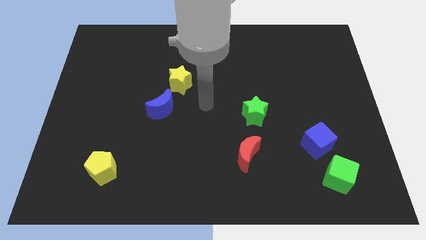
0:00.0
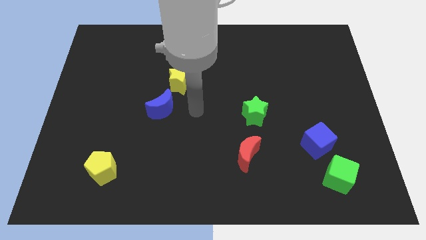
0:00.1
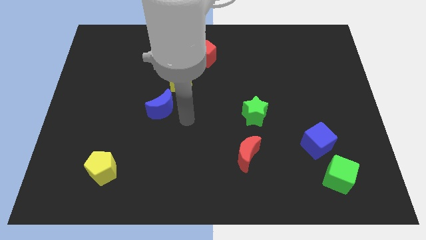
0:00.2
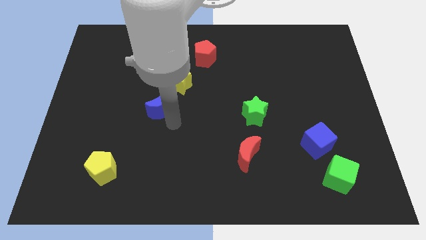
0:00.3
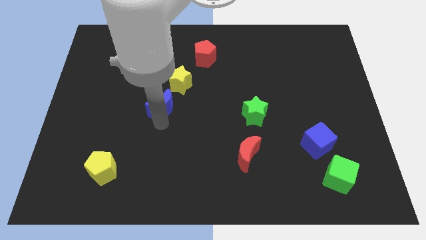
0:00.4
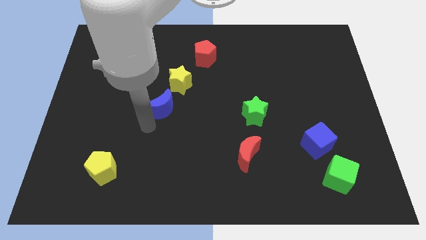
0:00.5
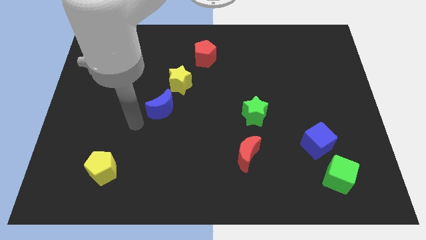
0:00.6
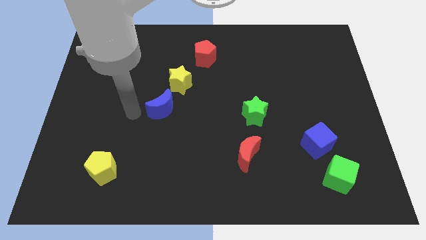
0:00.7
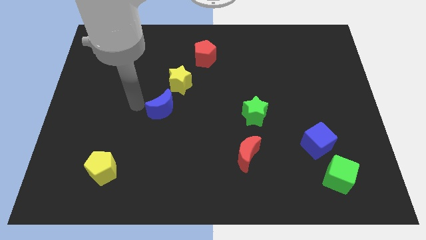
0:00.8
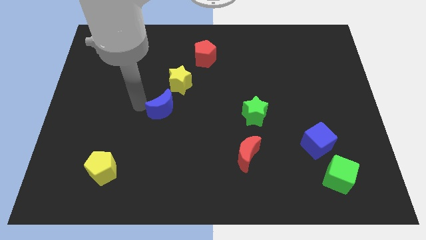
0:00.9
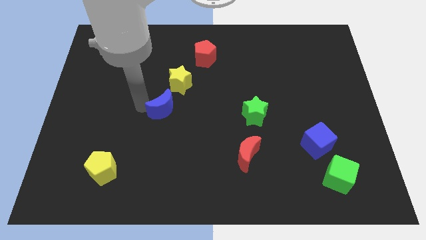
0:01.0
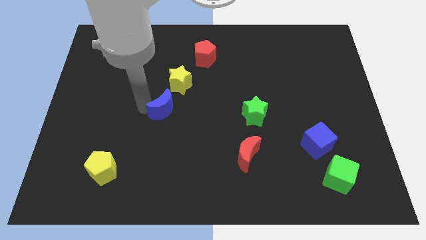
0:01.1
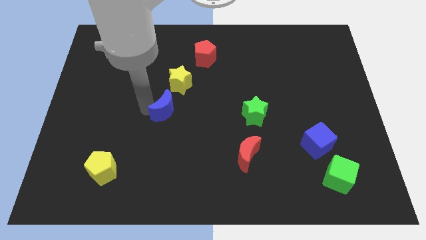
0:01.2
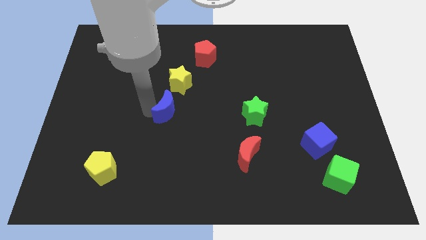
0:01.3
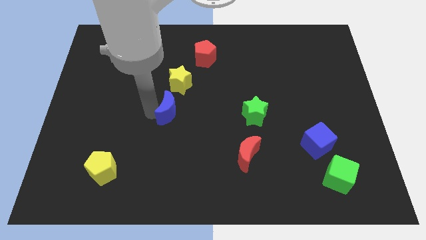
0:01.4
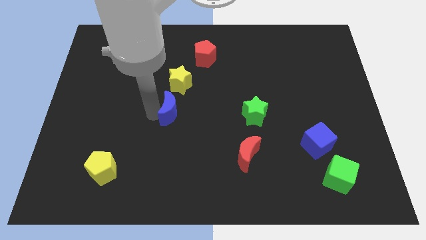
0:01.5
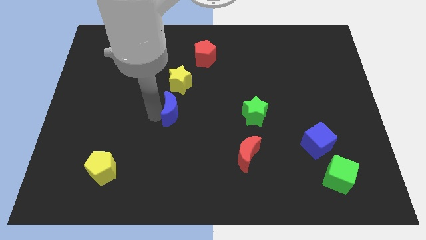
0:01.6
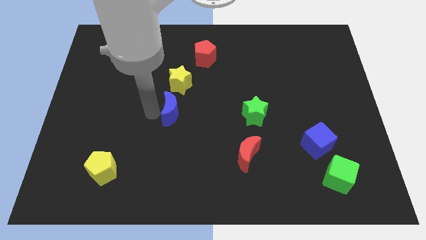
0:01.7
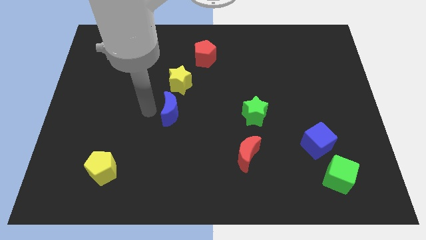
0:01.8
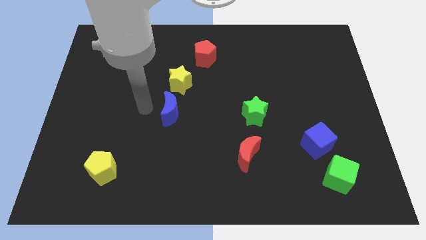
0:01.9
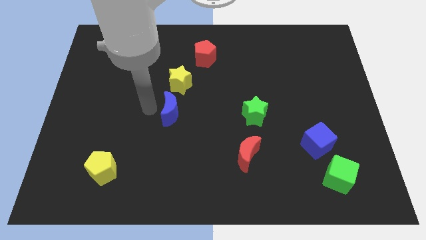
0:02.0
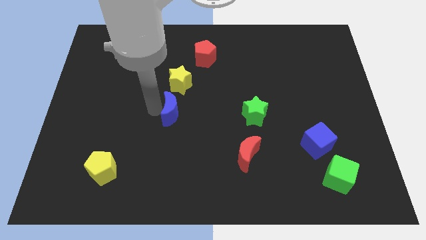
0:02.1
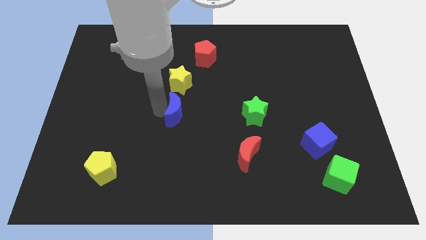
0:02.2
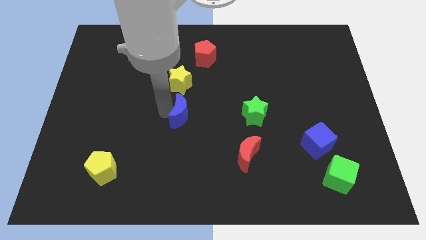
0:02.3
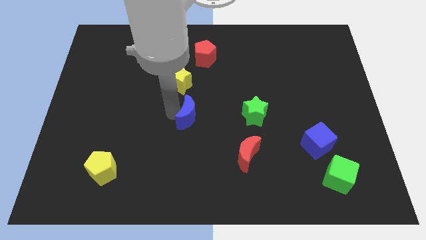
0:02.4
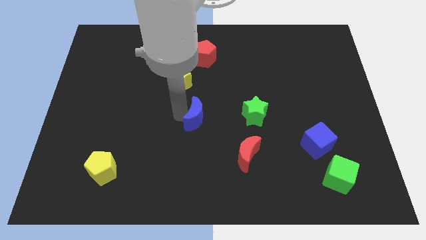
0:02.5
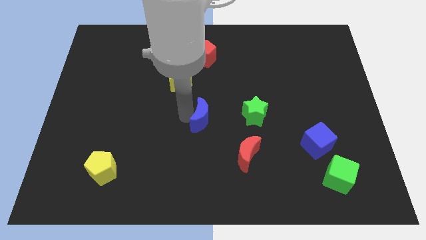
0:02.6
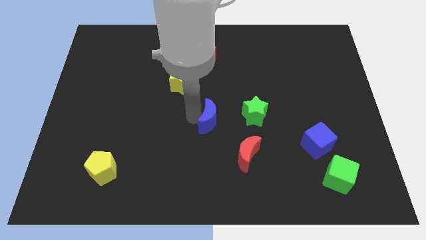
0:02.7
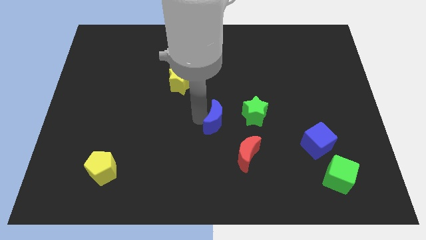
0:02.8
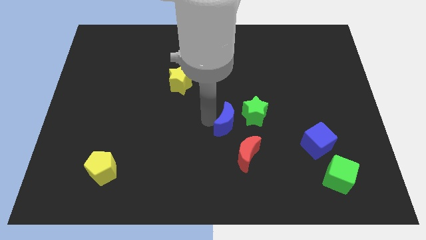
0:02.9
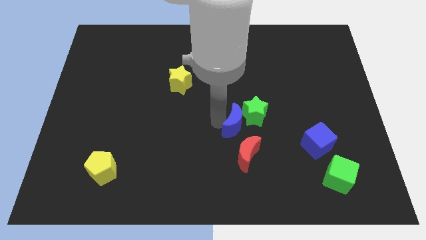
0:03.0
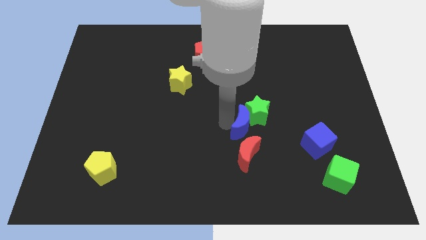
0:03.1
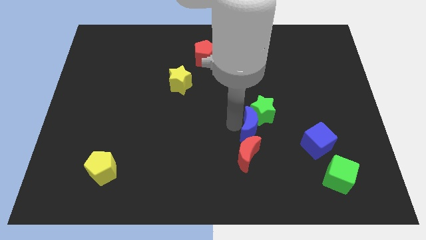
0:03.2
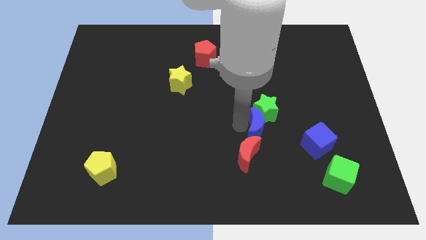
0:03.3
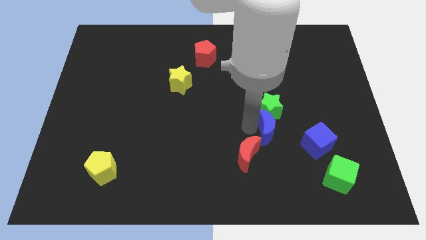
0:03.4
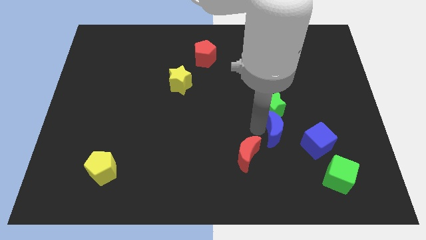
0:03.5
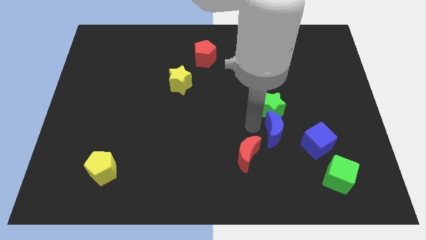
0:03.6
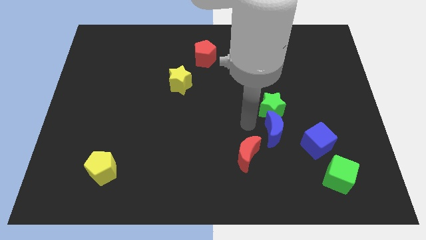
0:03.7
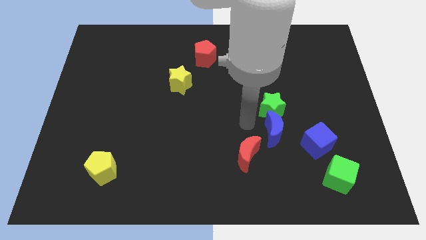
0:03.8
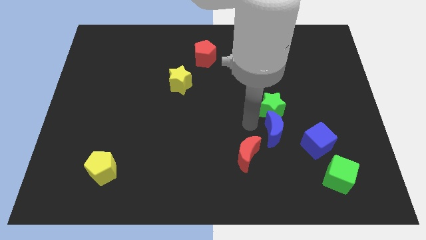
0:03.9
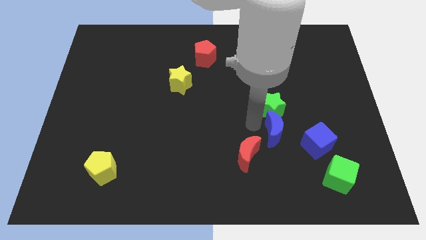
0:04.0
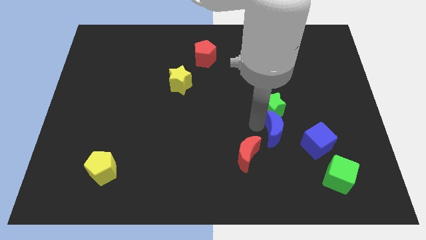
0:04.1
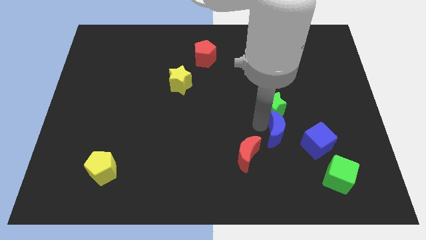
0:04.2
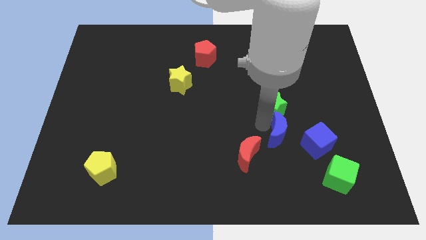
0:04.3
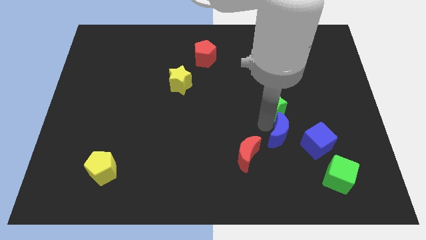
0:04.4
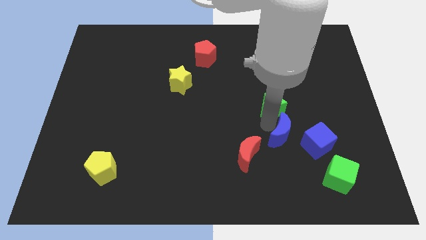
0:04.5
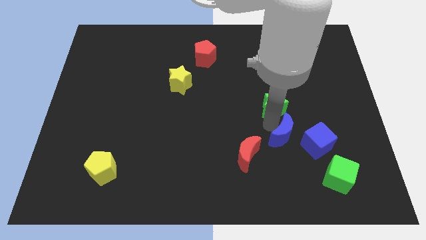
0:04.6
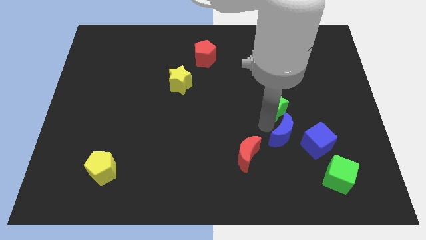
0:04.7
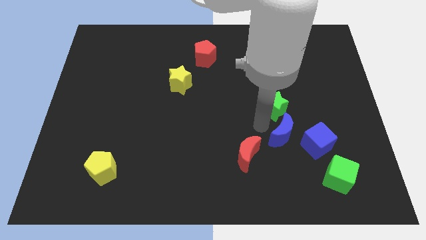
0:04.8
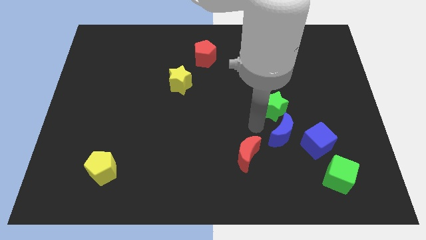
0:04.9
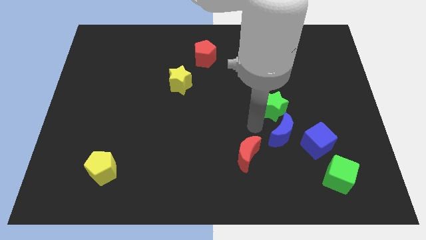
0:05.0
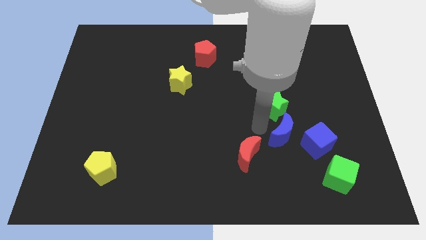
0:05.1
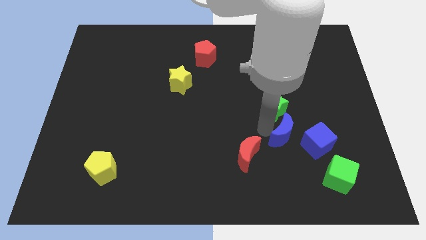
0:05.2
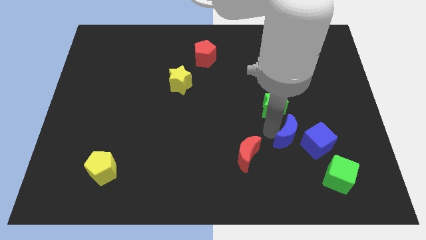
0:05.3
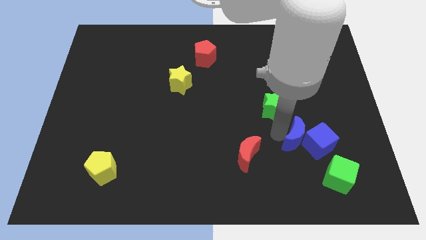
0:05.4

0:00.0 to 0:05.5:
put the blue moon to the blue cube

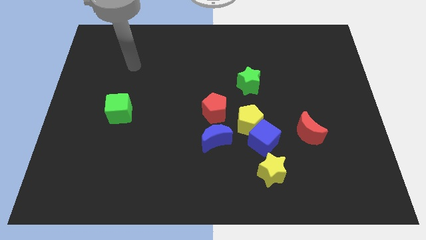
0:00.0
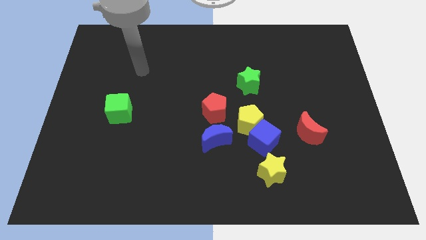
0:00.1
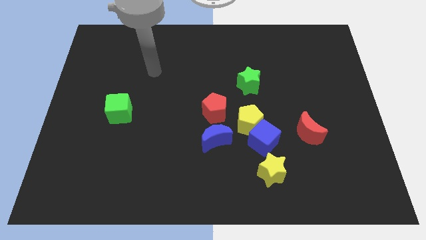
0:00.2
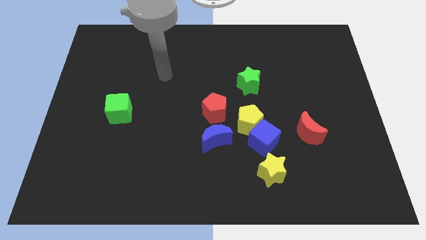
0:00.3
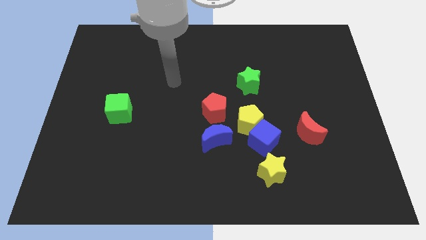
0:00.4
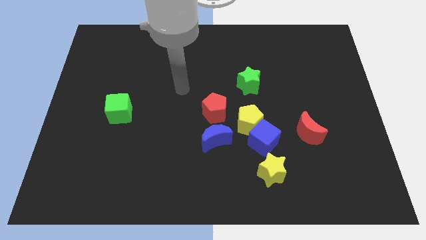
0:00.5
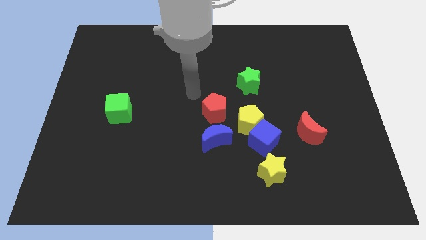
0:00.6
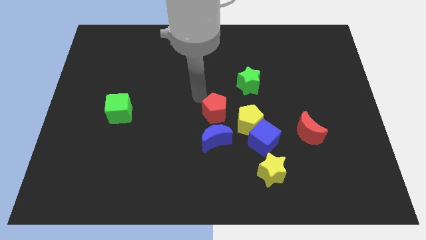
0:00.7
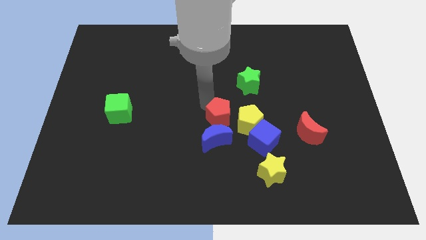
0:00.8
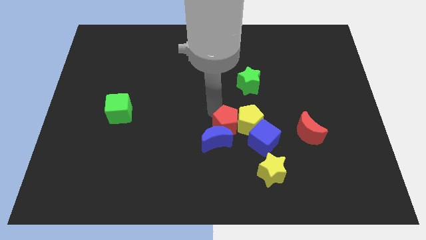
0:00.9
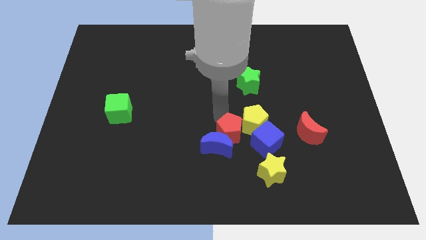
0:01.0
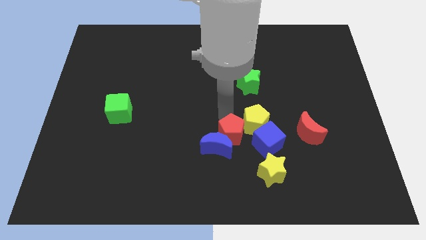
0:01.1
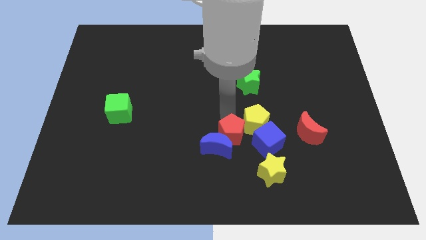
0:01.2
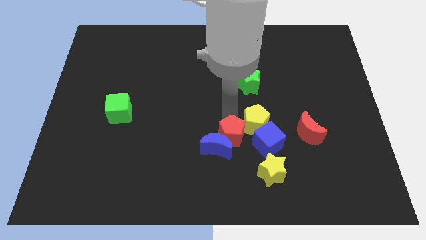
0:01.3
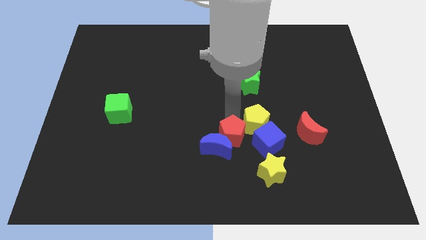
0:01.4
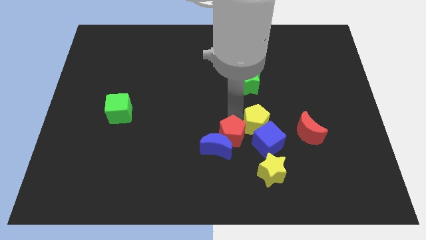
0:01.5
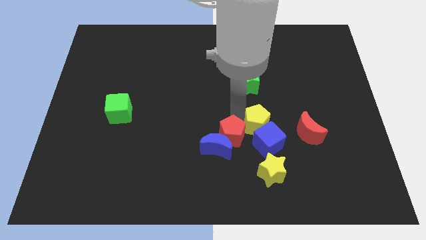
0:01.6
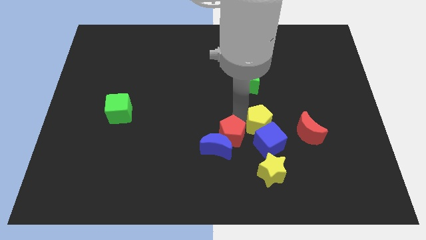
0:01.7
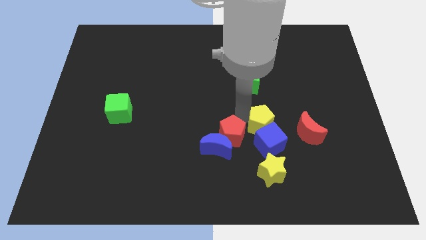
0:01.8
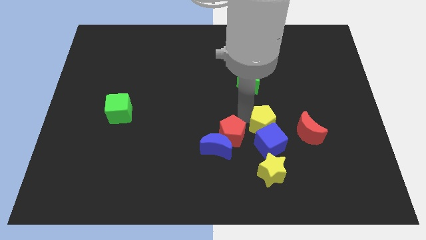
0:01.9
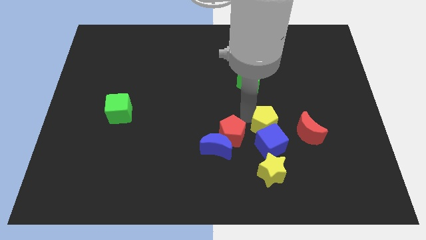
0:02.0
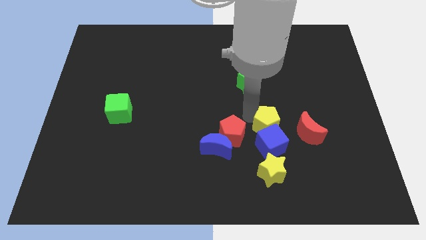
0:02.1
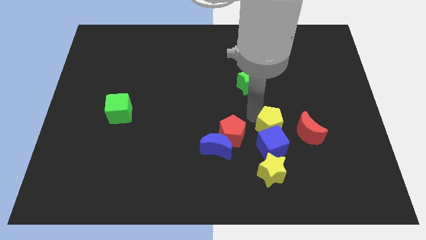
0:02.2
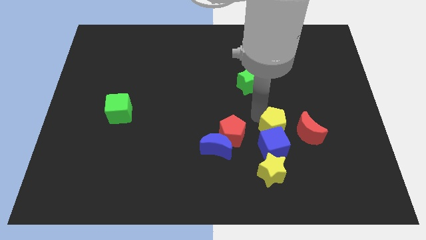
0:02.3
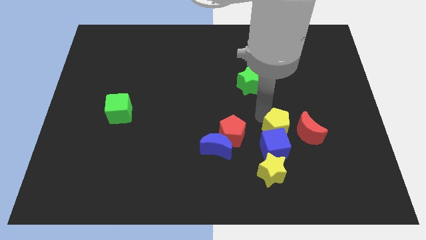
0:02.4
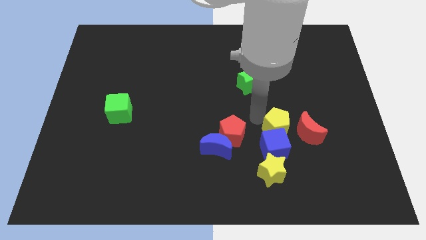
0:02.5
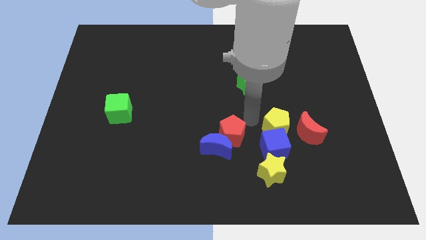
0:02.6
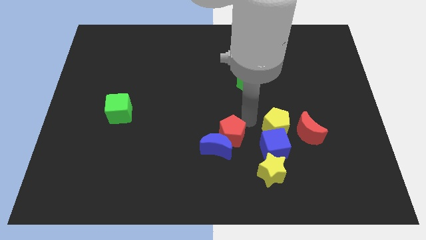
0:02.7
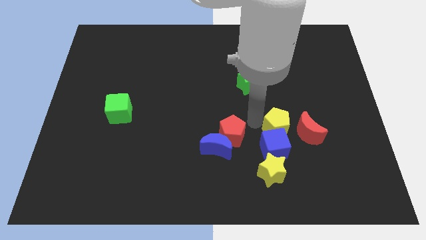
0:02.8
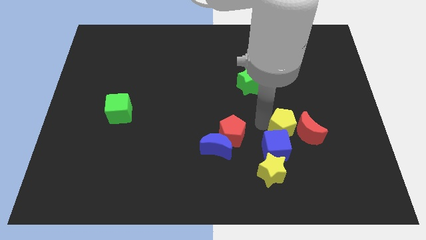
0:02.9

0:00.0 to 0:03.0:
push the yellow pentagon close to the red moon
